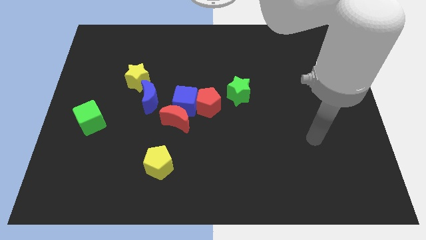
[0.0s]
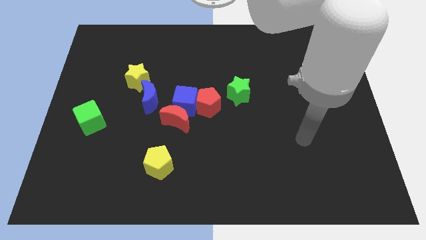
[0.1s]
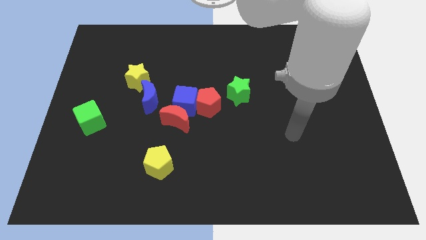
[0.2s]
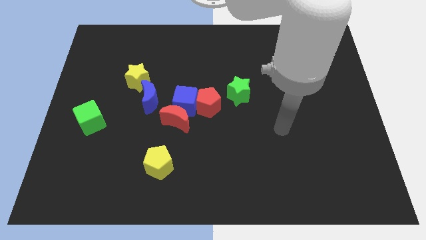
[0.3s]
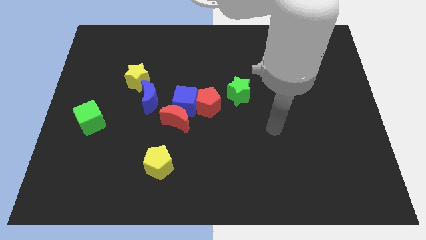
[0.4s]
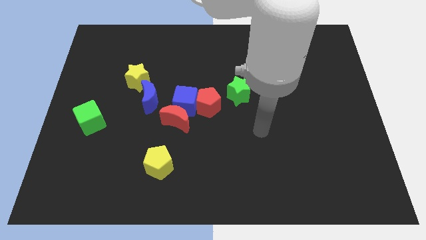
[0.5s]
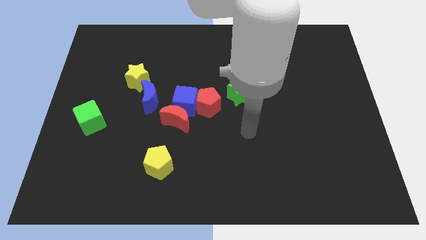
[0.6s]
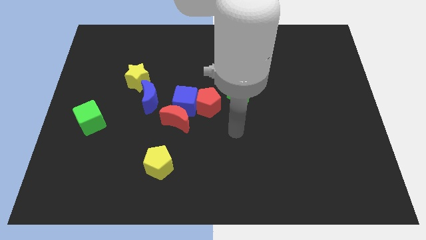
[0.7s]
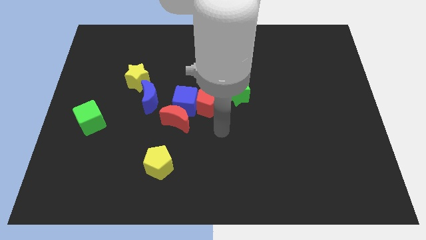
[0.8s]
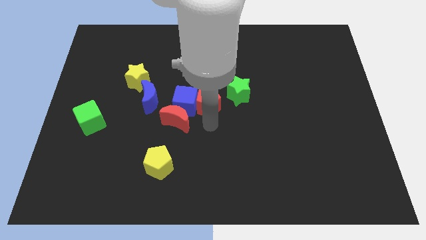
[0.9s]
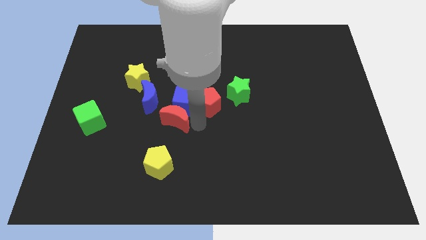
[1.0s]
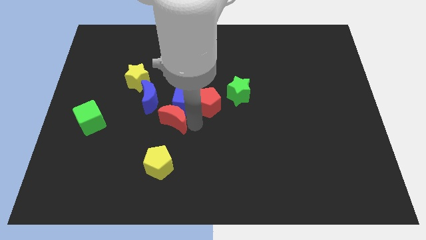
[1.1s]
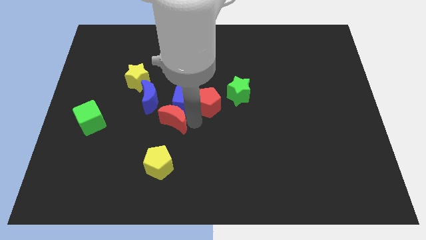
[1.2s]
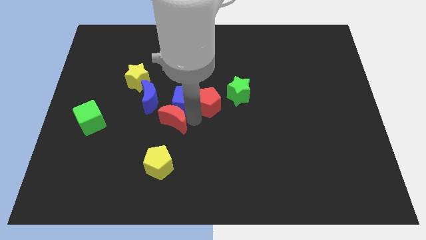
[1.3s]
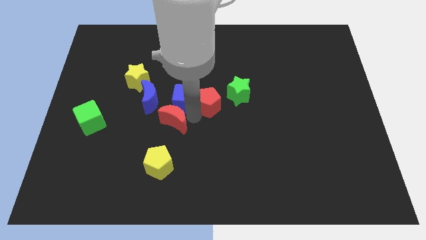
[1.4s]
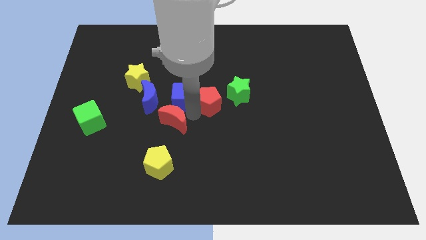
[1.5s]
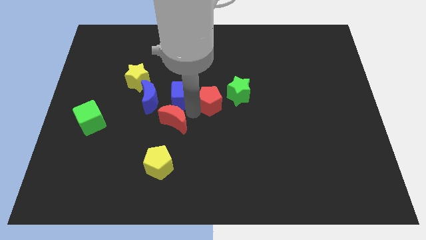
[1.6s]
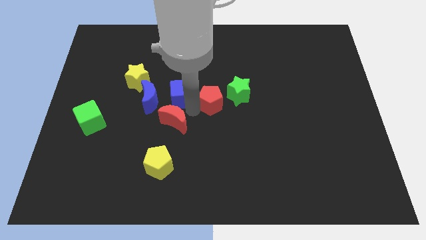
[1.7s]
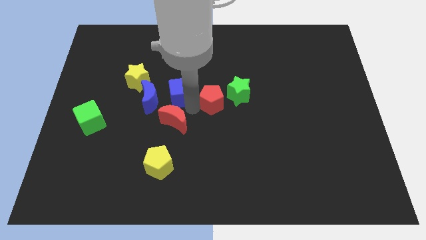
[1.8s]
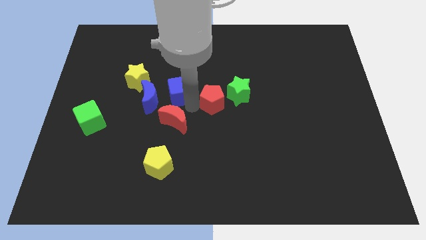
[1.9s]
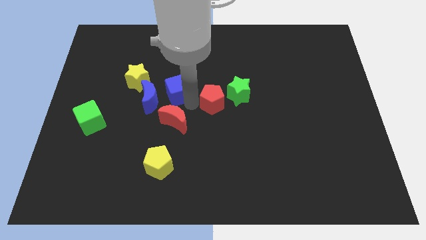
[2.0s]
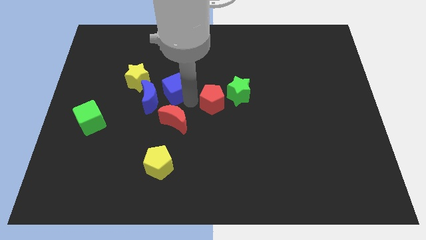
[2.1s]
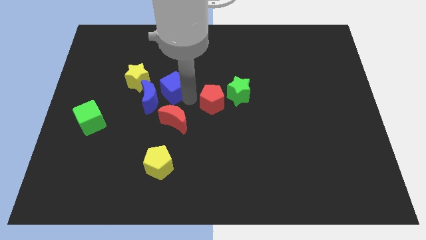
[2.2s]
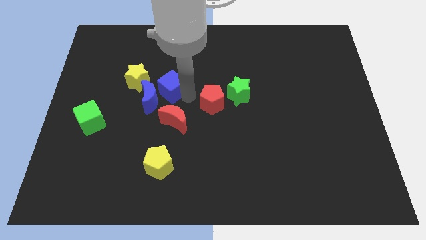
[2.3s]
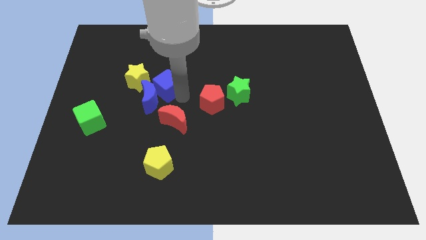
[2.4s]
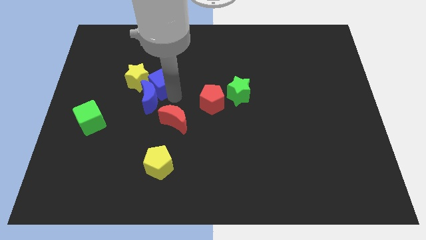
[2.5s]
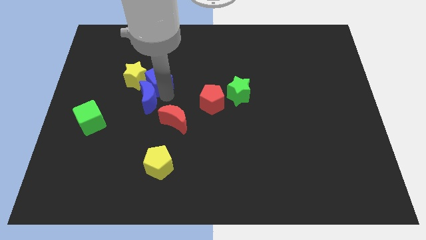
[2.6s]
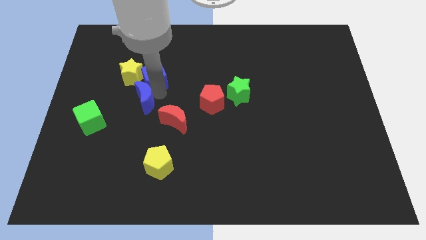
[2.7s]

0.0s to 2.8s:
move the blue cube away from the red moon, red pentagon, and blue moon

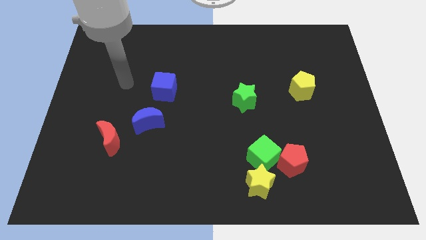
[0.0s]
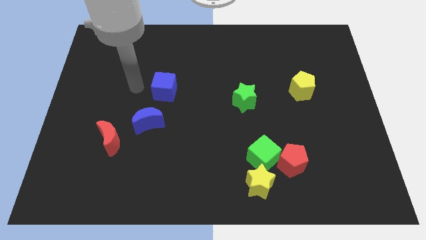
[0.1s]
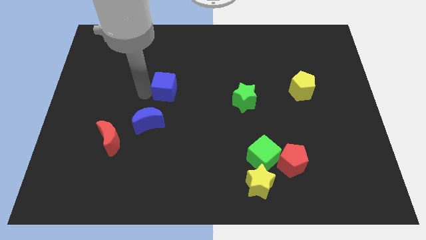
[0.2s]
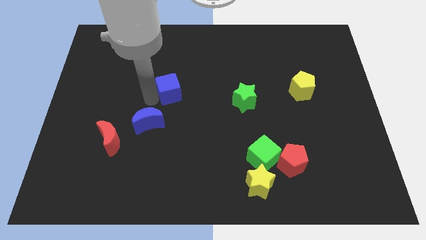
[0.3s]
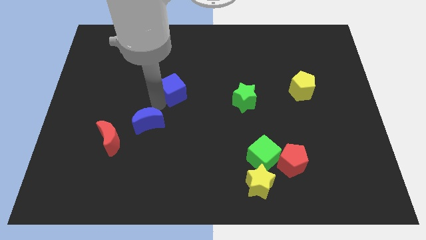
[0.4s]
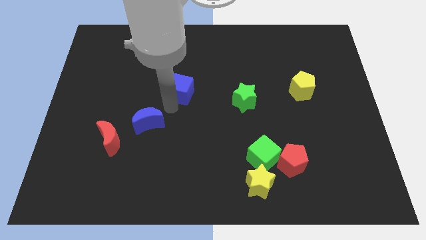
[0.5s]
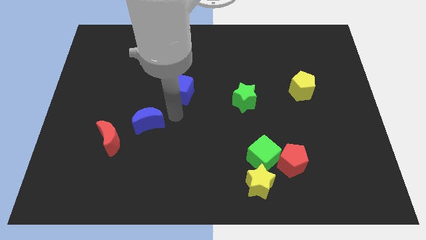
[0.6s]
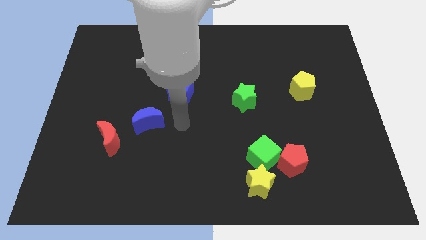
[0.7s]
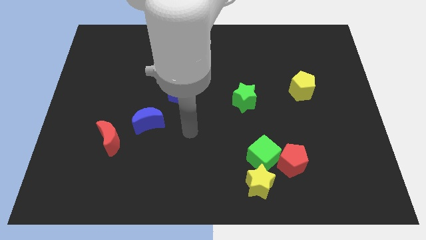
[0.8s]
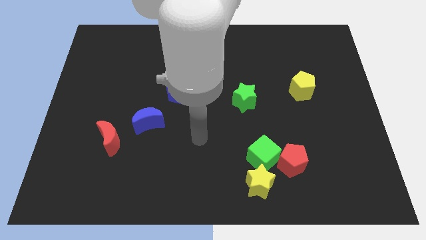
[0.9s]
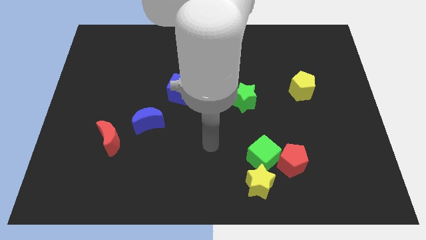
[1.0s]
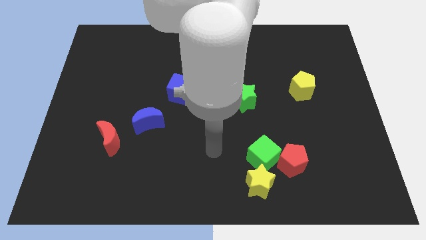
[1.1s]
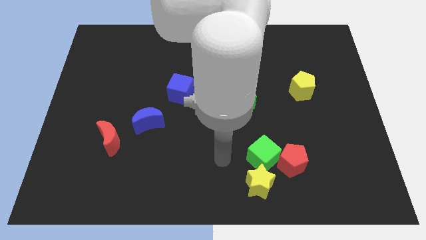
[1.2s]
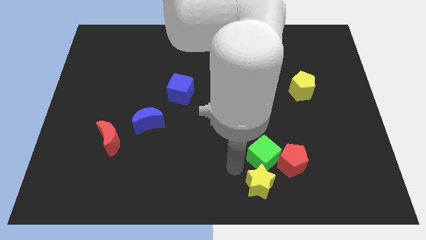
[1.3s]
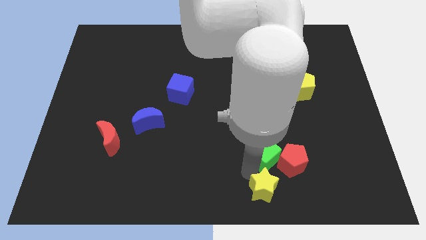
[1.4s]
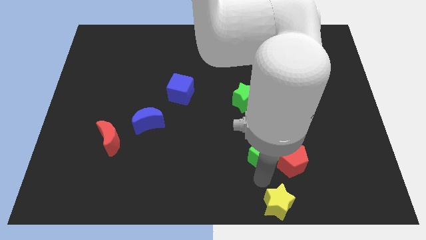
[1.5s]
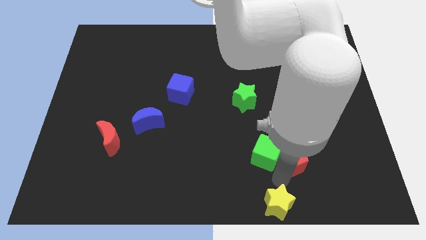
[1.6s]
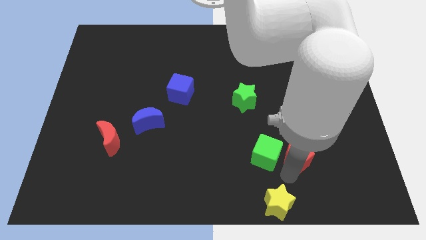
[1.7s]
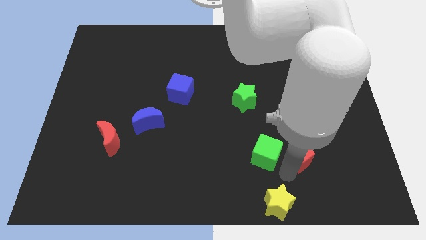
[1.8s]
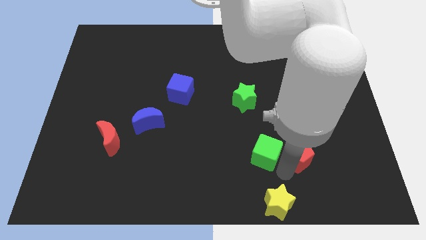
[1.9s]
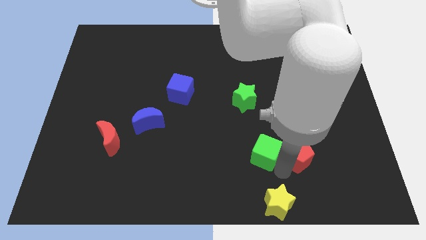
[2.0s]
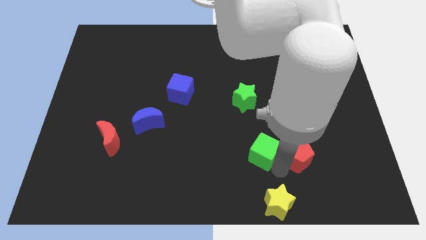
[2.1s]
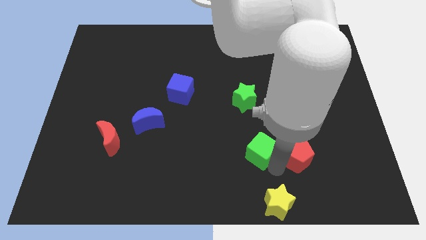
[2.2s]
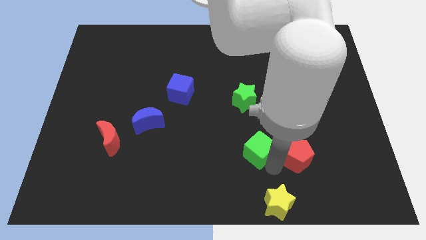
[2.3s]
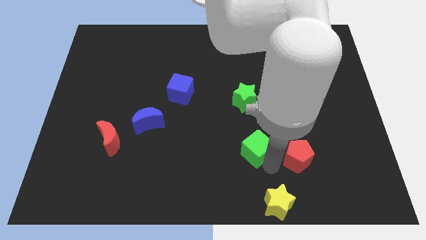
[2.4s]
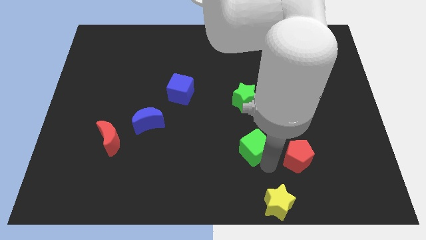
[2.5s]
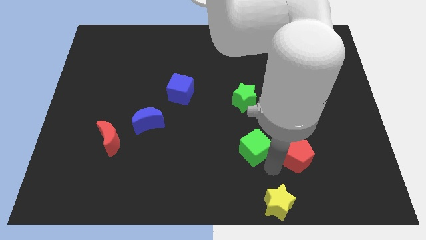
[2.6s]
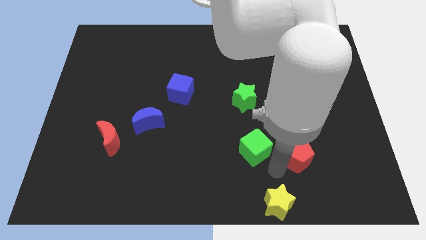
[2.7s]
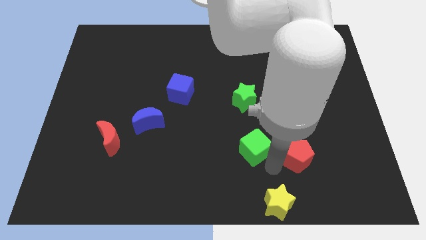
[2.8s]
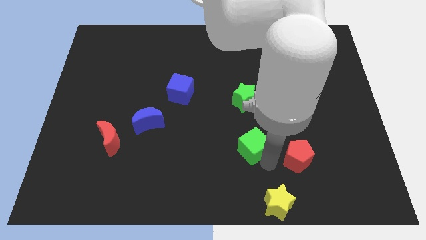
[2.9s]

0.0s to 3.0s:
separate the green cube from the red pentagon and yellow star

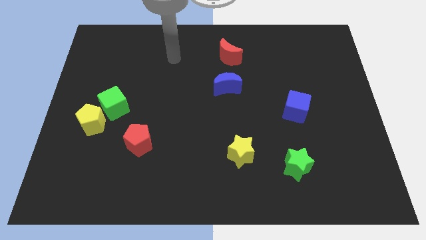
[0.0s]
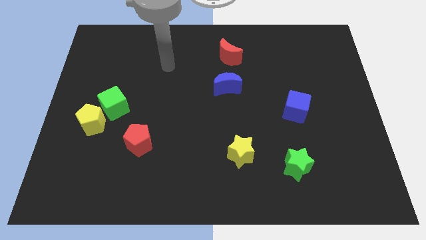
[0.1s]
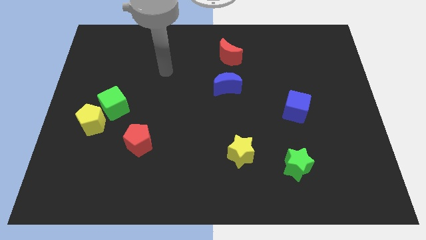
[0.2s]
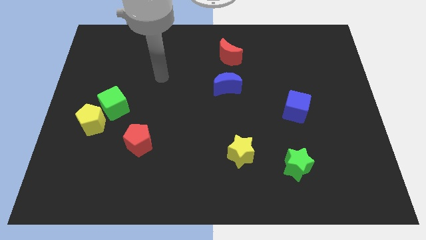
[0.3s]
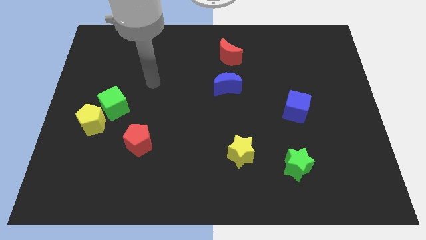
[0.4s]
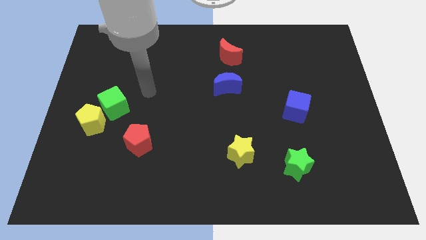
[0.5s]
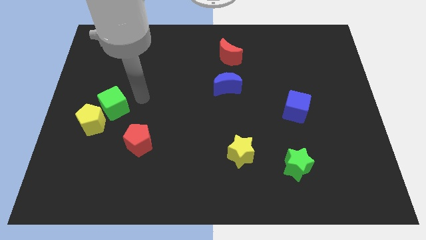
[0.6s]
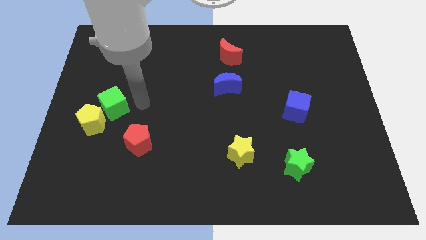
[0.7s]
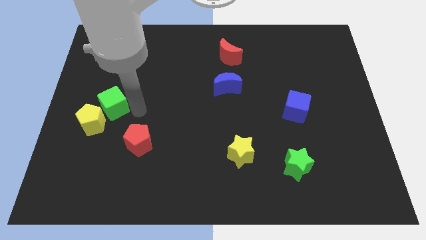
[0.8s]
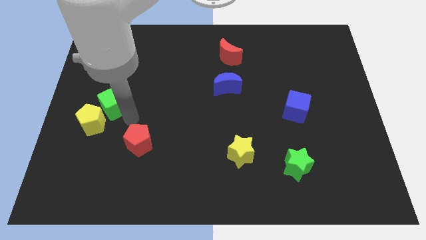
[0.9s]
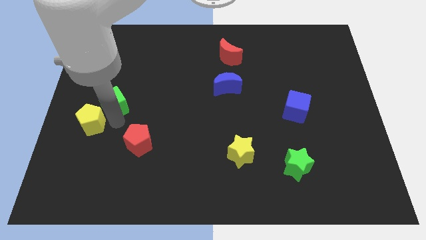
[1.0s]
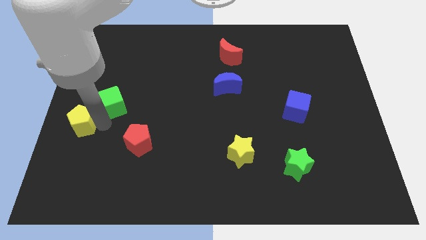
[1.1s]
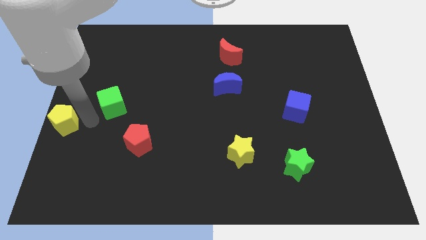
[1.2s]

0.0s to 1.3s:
move the green cube away from the yellow pentagon

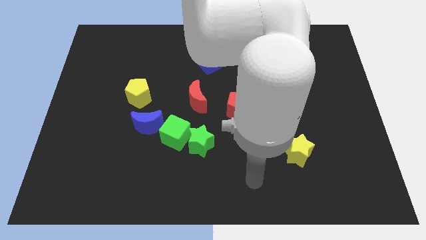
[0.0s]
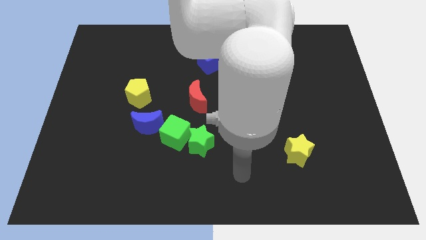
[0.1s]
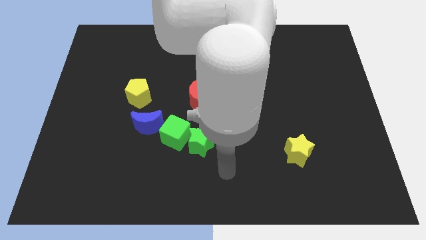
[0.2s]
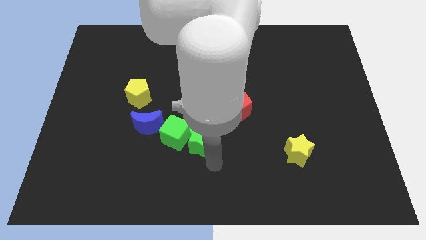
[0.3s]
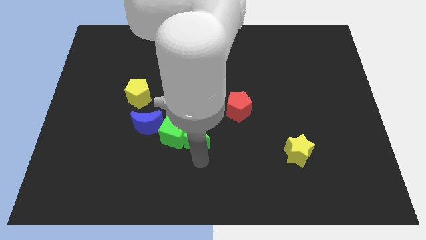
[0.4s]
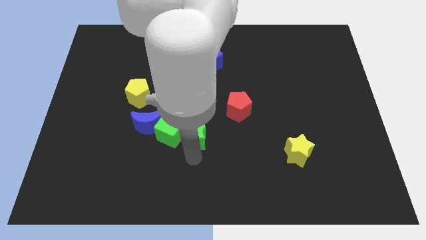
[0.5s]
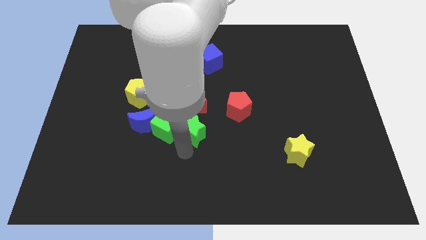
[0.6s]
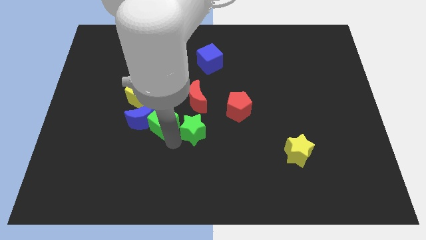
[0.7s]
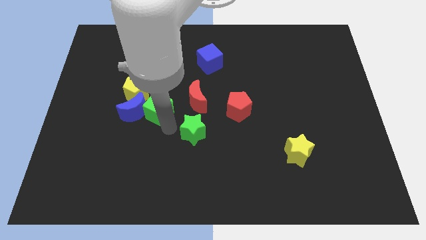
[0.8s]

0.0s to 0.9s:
pull the green star apart from the green cube

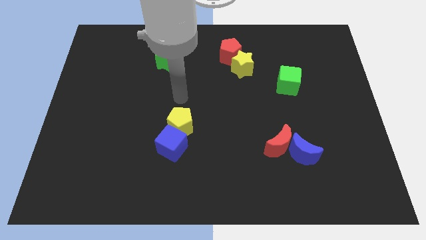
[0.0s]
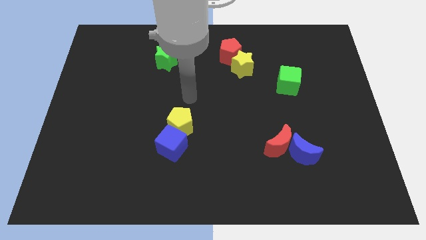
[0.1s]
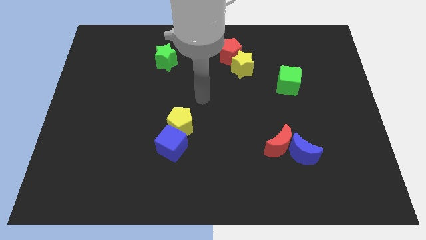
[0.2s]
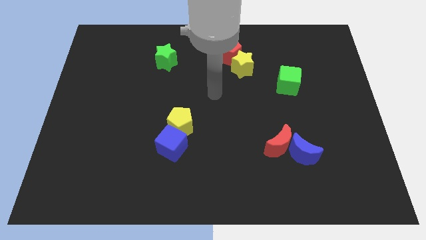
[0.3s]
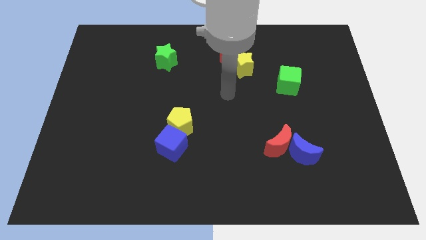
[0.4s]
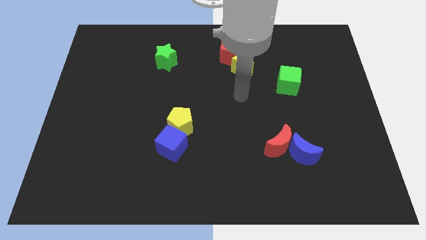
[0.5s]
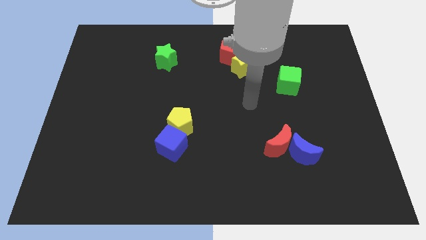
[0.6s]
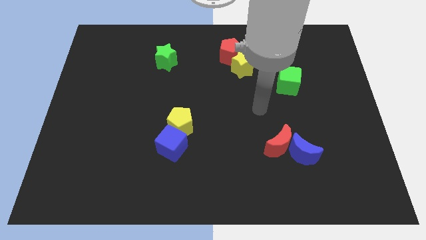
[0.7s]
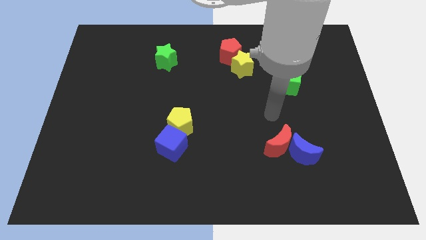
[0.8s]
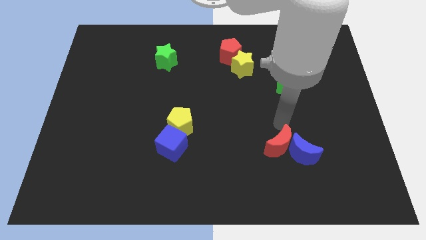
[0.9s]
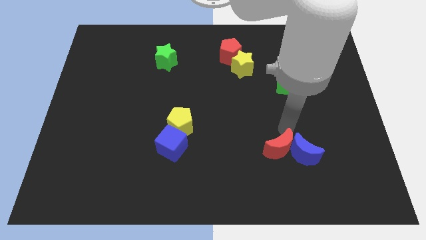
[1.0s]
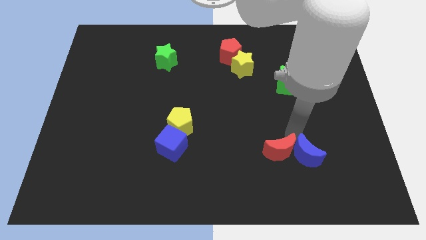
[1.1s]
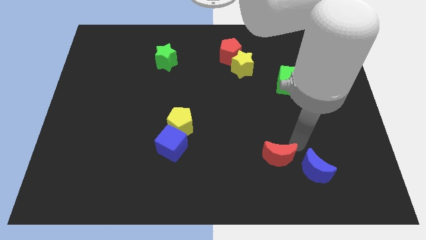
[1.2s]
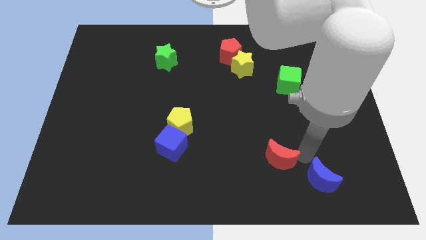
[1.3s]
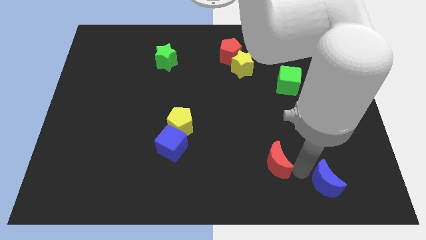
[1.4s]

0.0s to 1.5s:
pull the red moon apart from the blue moon
